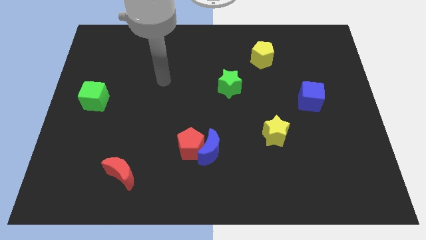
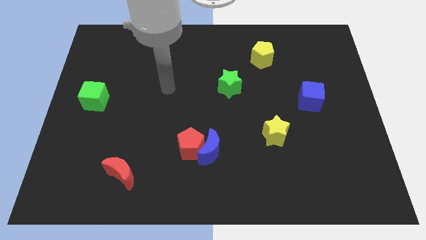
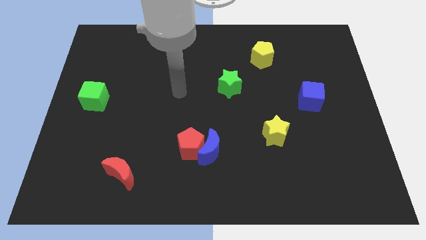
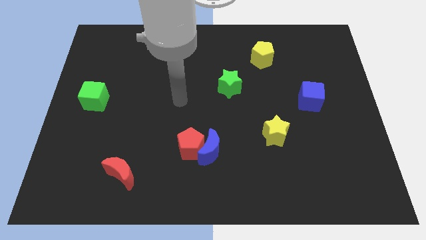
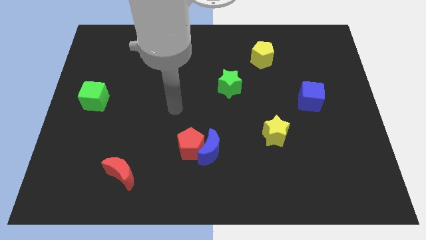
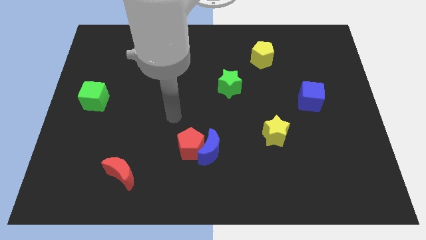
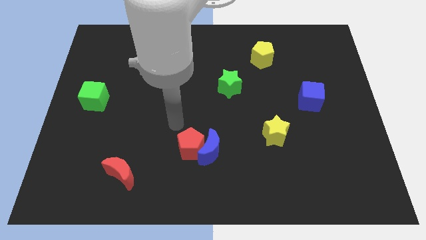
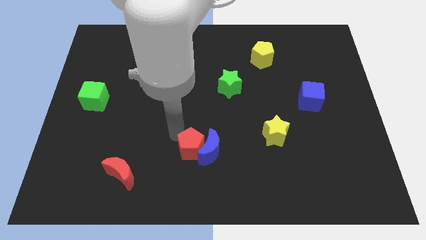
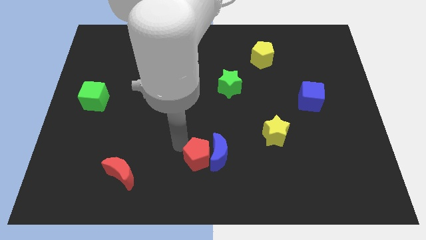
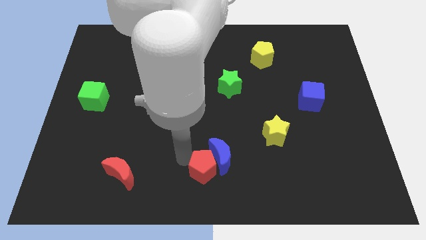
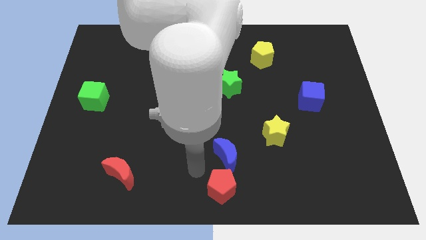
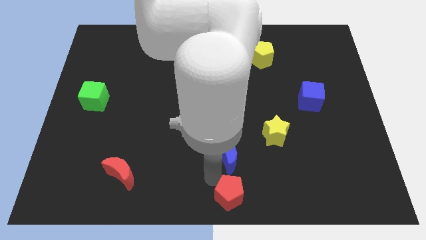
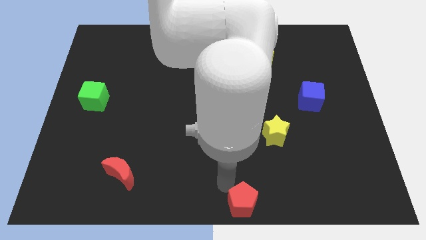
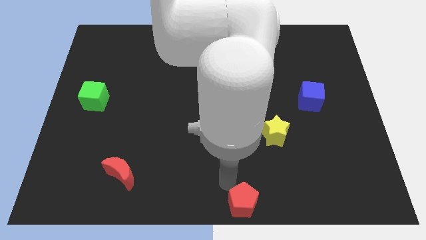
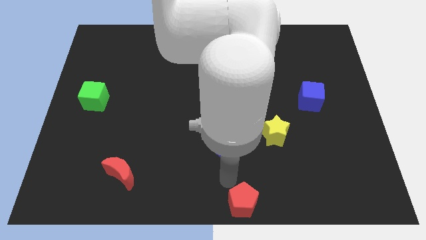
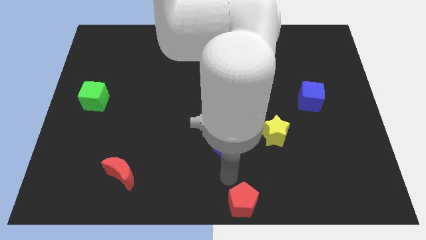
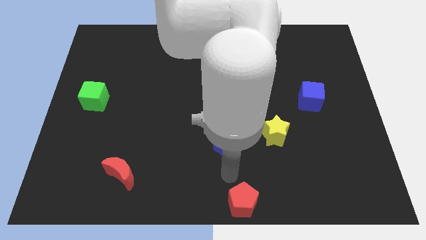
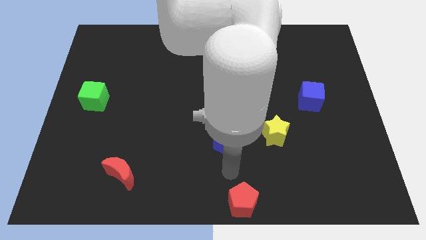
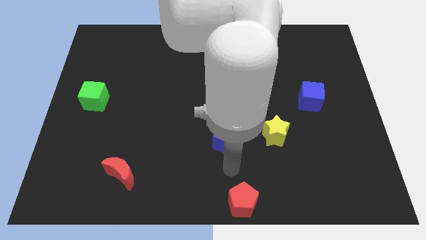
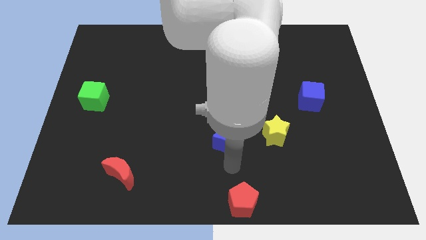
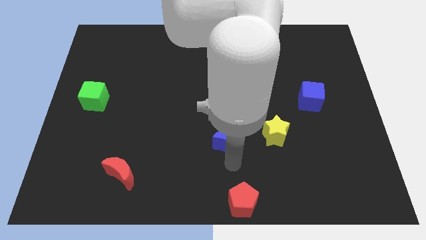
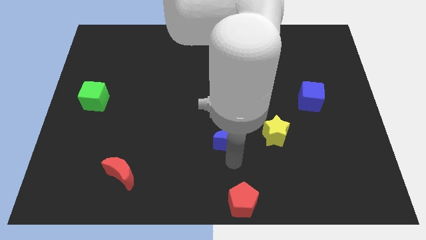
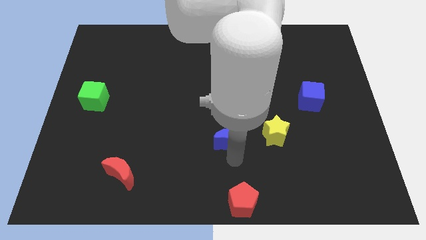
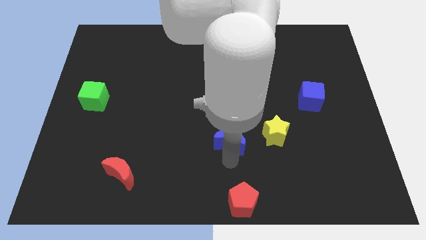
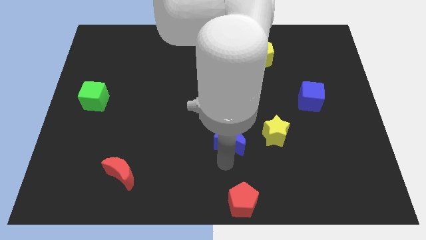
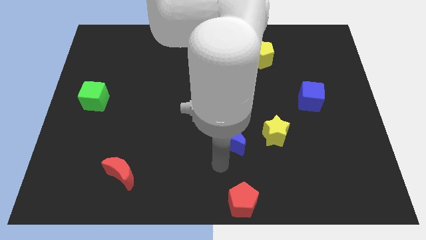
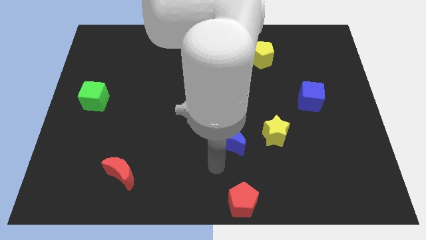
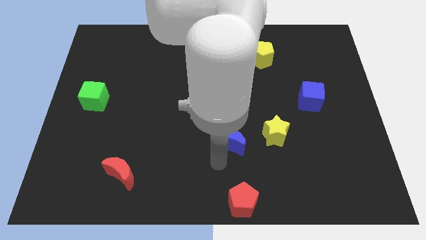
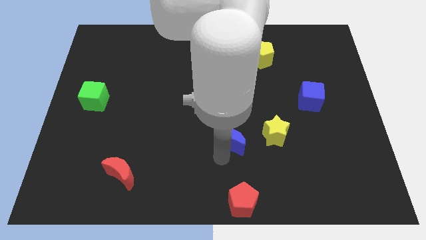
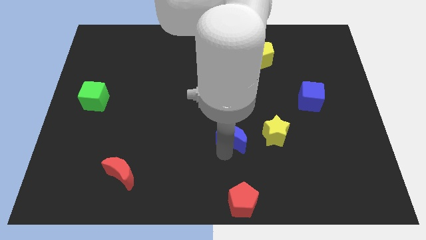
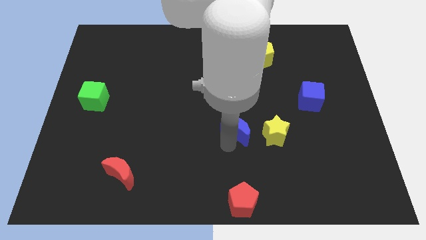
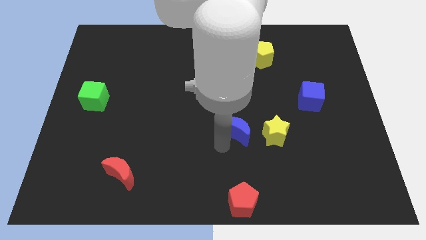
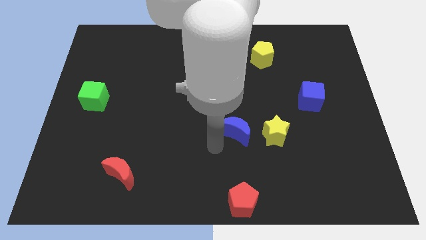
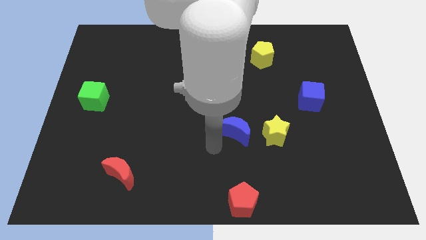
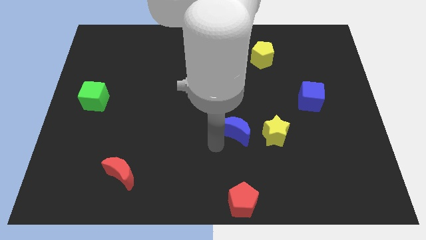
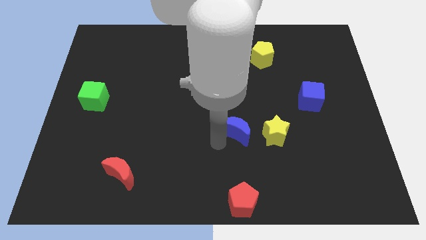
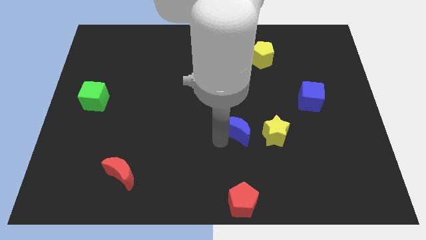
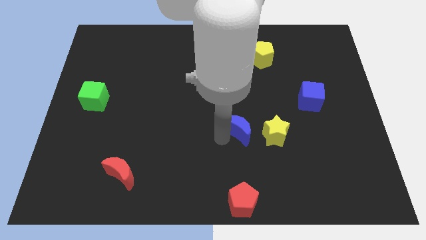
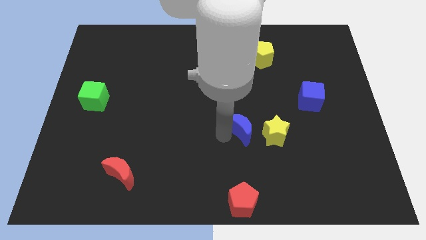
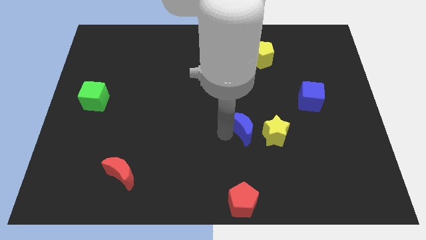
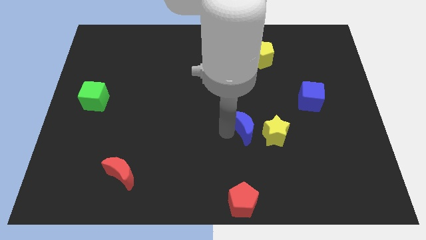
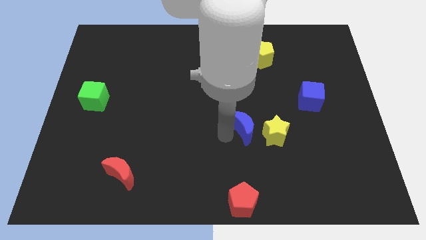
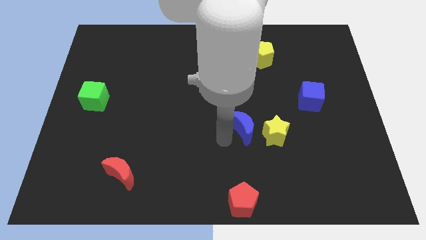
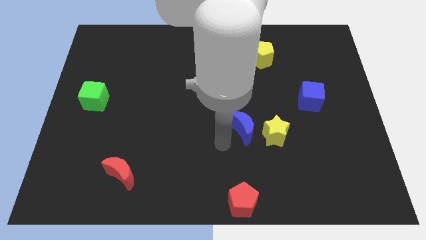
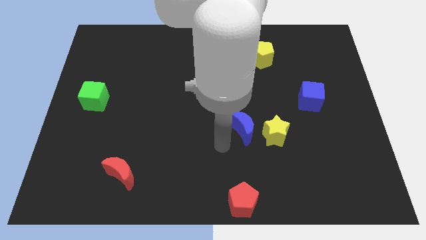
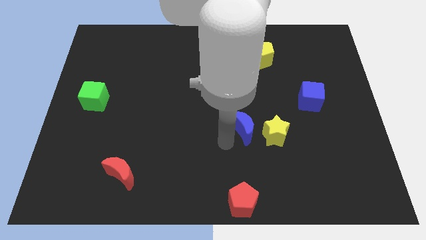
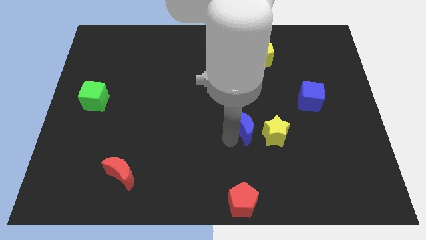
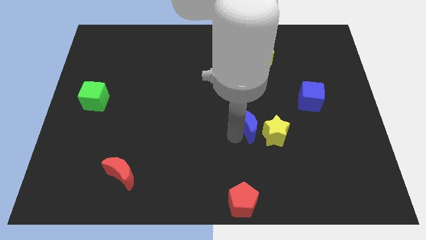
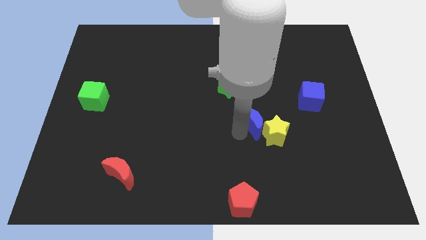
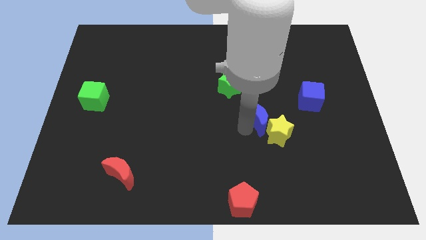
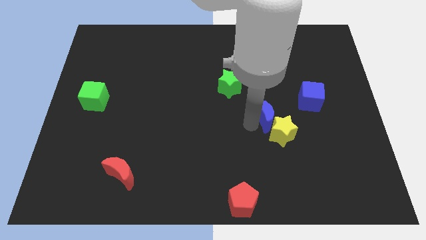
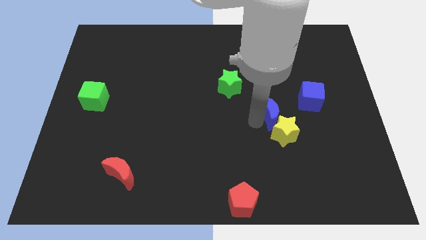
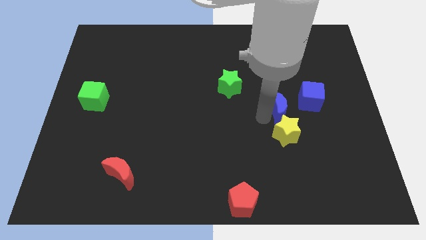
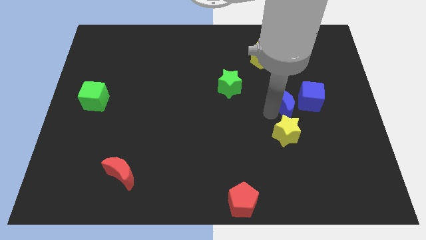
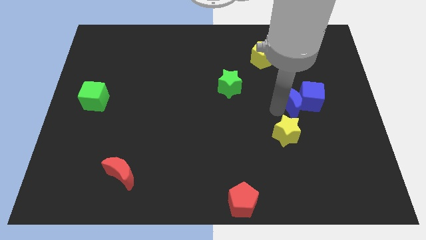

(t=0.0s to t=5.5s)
push the blue moon close to the blue cube

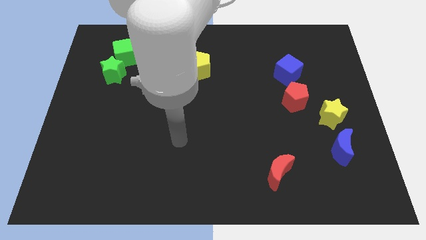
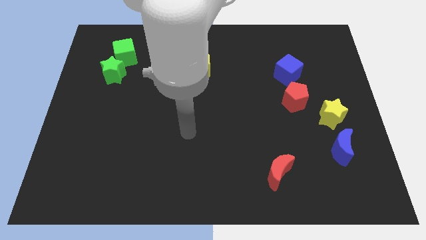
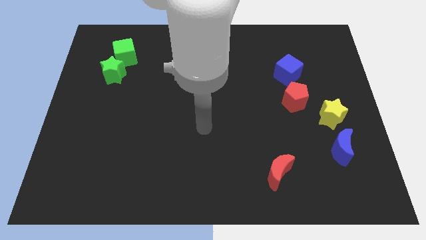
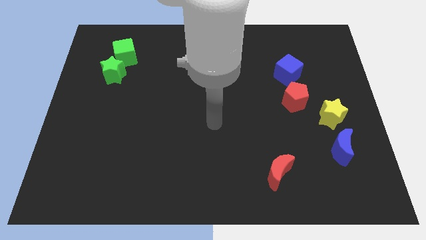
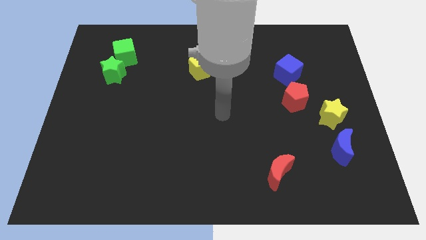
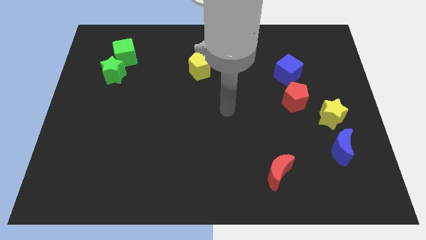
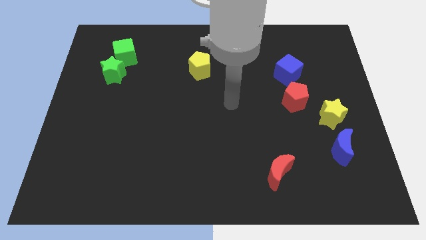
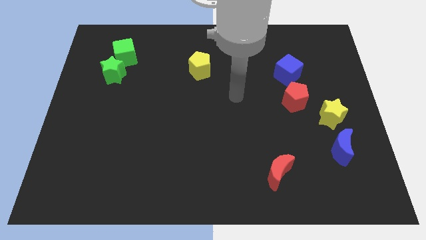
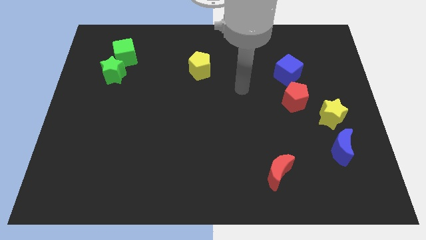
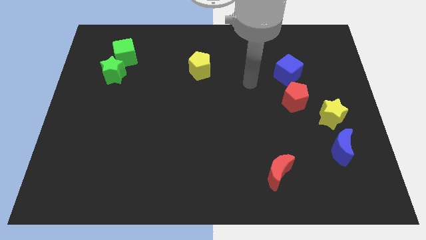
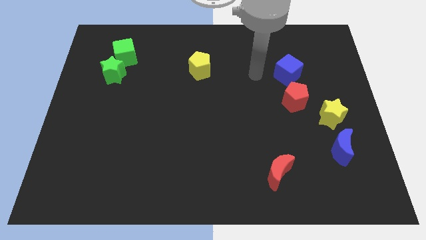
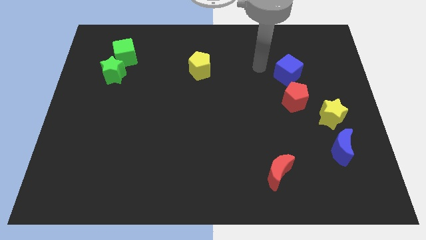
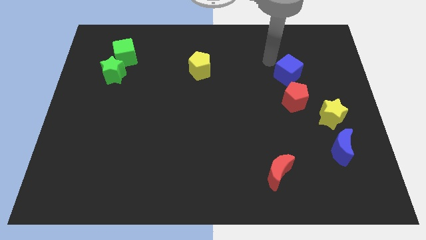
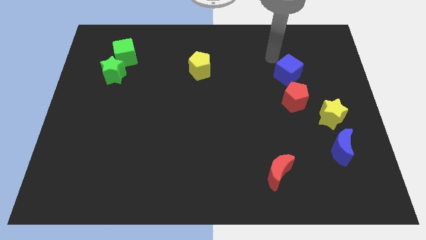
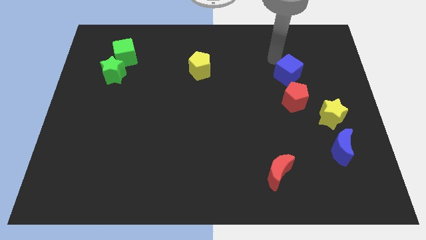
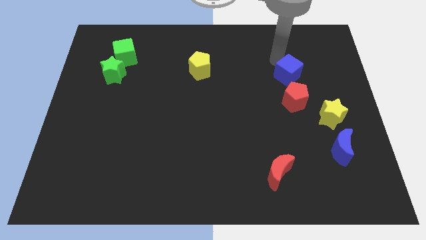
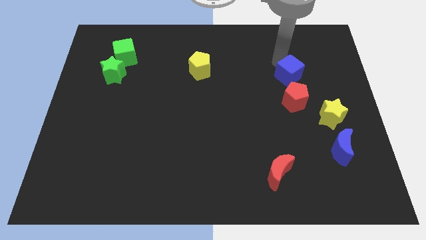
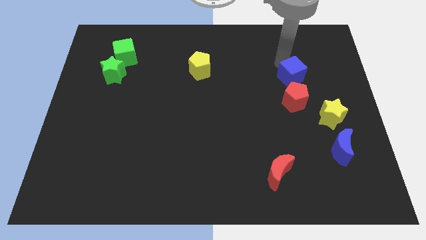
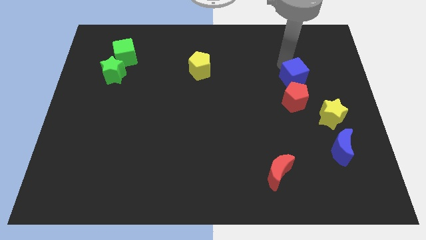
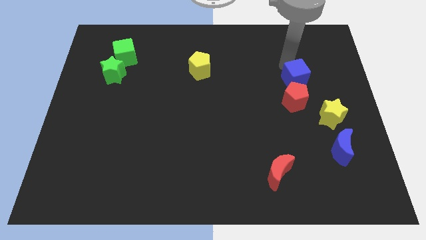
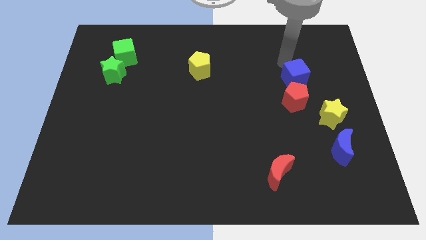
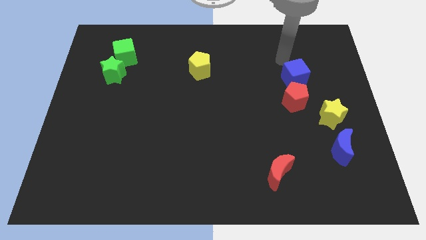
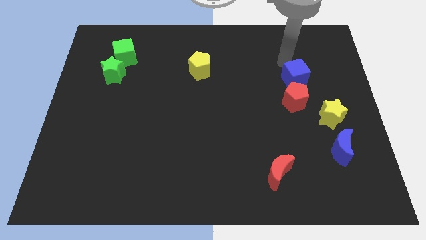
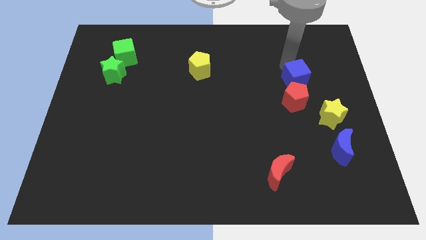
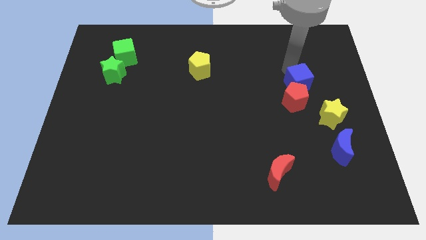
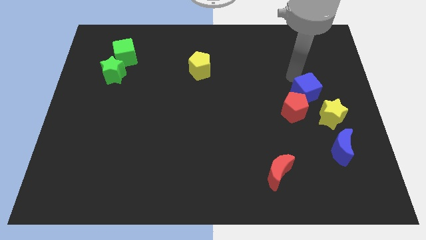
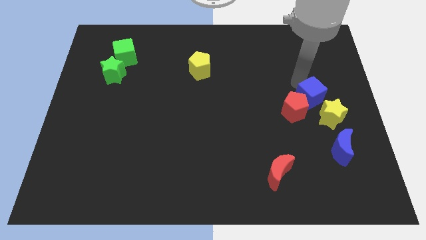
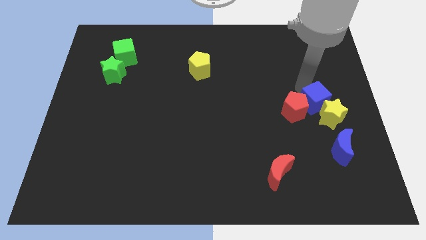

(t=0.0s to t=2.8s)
move the blue cube to the yellow star

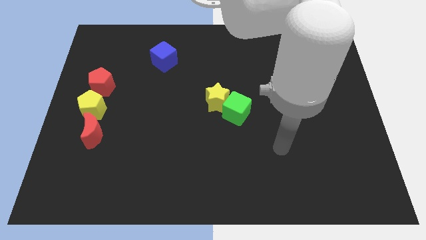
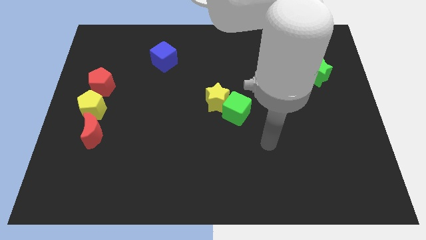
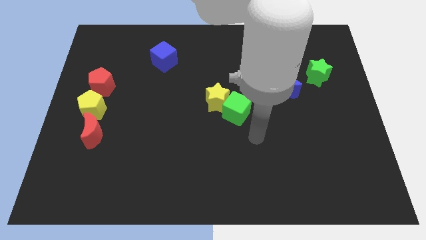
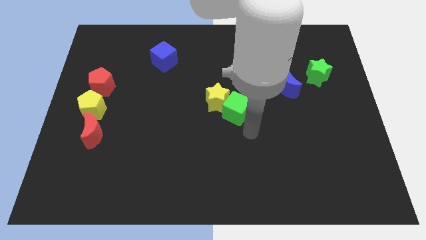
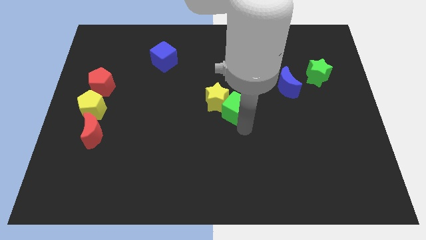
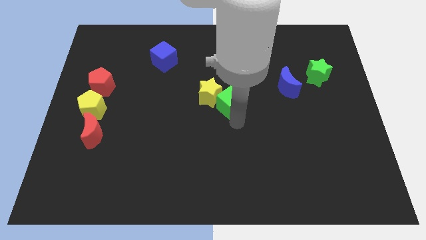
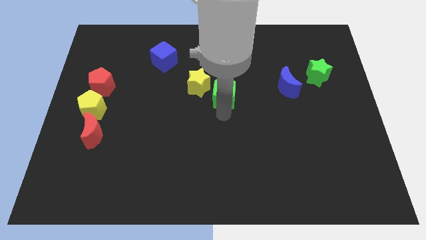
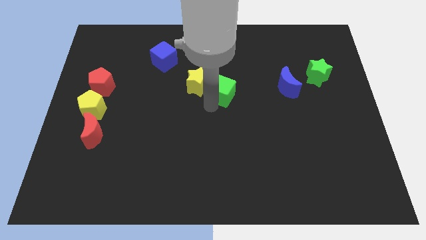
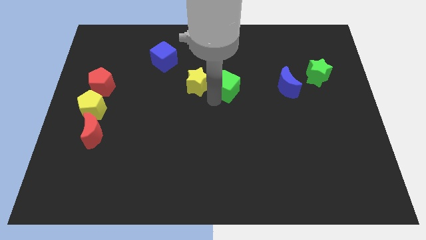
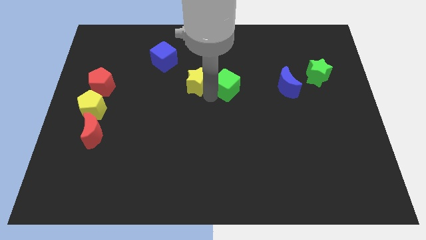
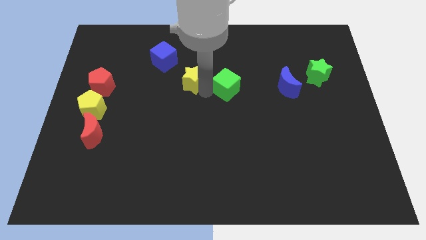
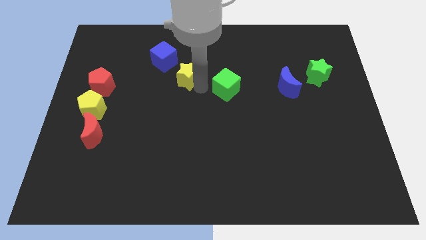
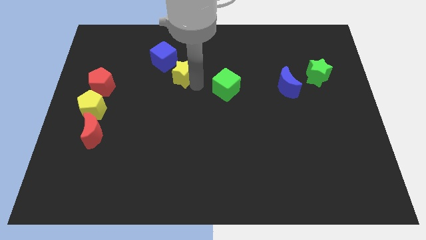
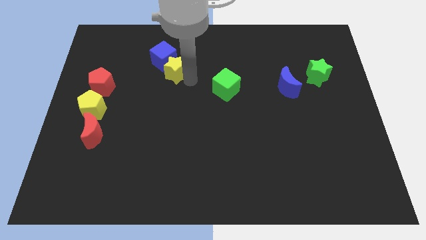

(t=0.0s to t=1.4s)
slide the yellow star next to the blue cube
